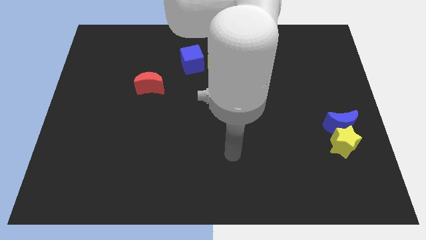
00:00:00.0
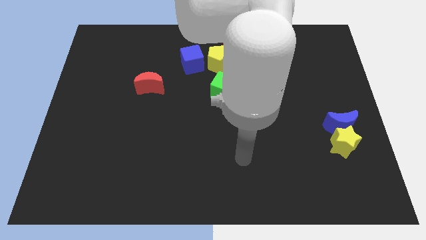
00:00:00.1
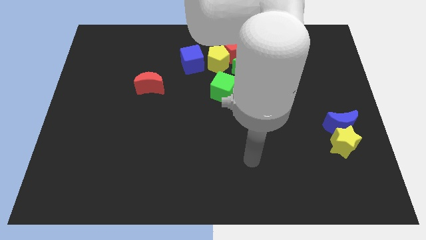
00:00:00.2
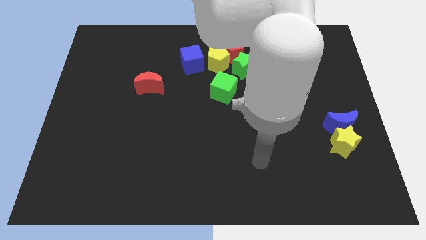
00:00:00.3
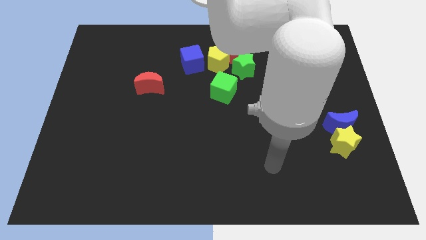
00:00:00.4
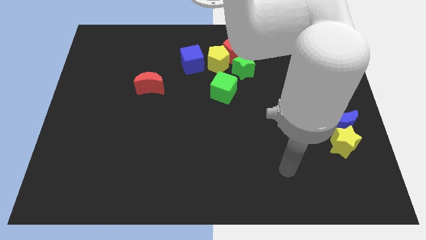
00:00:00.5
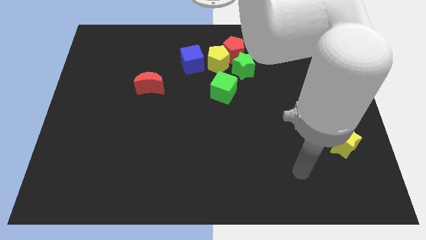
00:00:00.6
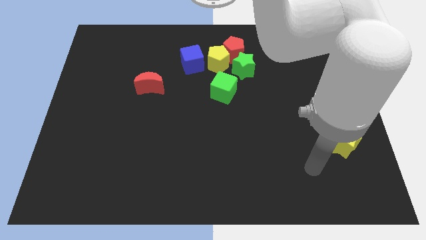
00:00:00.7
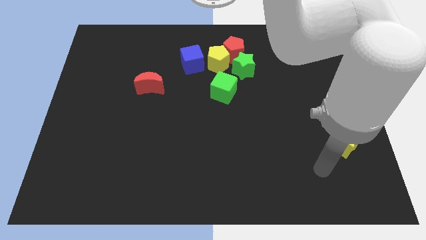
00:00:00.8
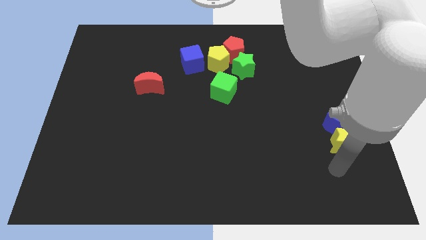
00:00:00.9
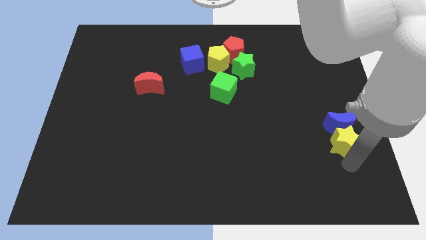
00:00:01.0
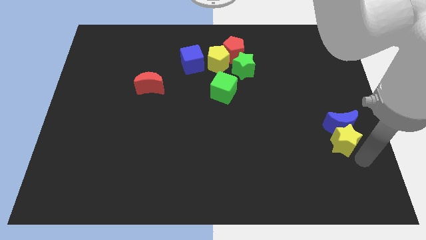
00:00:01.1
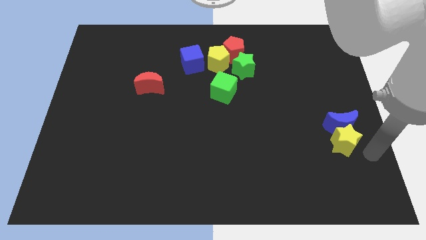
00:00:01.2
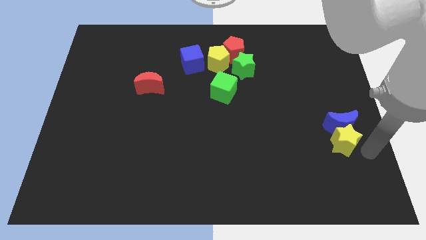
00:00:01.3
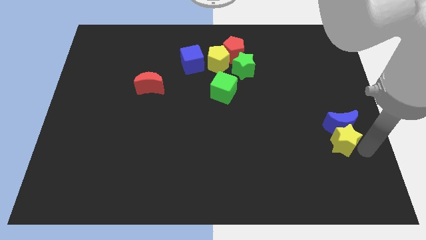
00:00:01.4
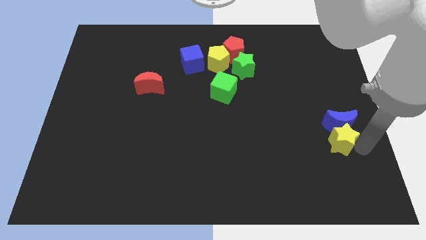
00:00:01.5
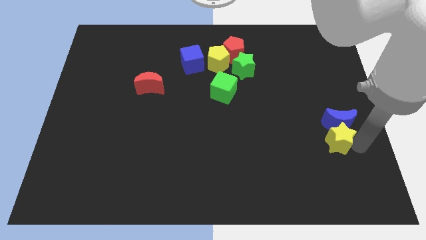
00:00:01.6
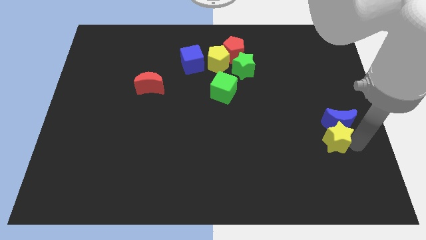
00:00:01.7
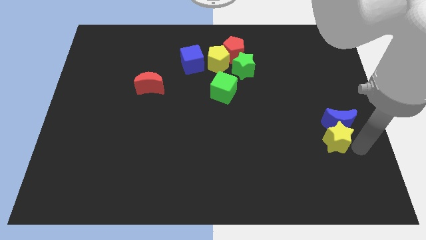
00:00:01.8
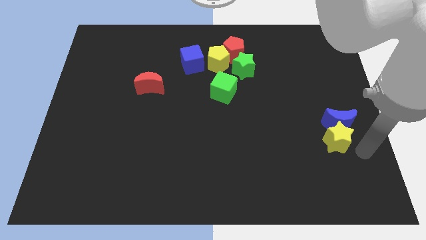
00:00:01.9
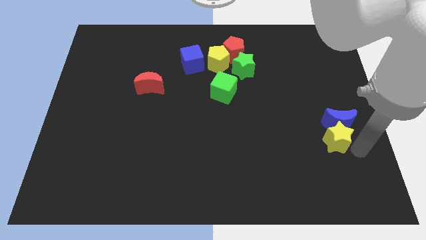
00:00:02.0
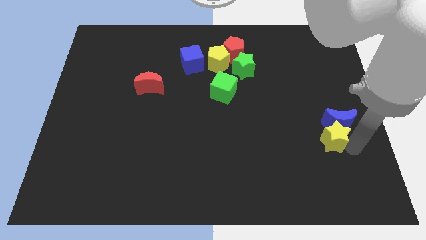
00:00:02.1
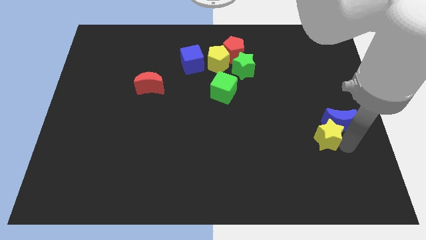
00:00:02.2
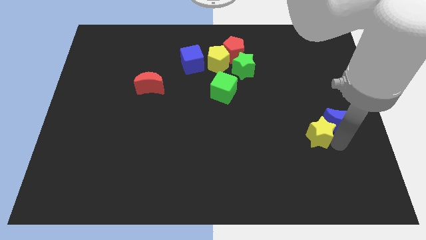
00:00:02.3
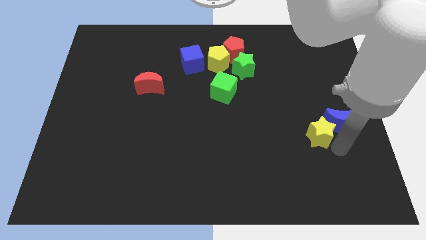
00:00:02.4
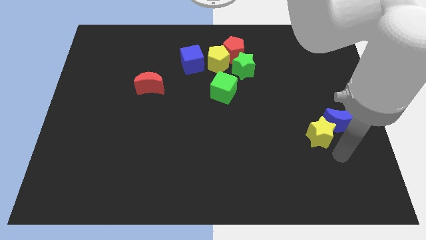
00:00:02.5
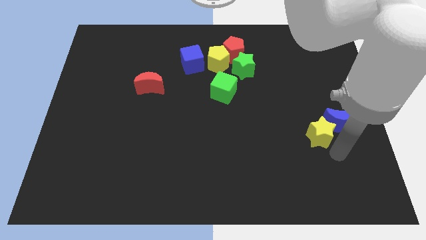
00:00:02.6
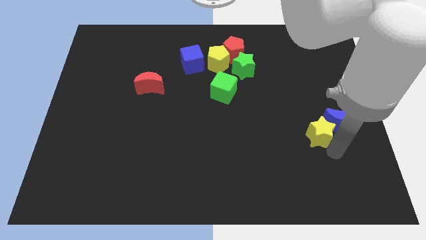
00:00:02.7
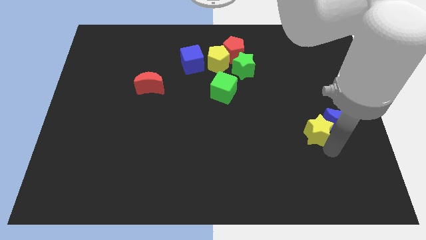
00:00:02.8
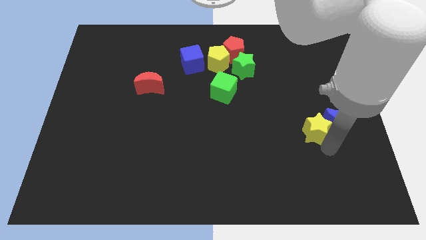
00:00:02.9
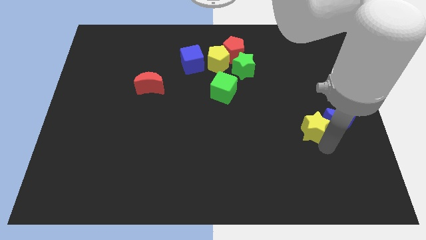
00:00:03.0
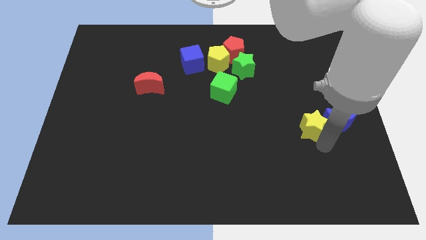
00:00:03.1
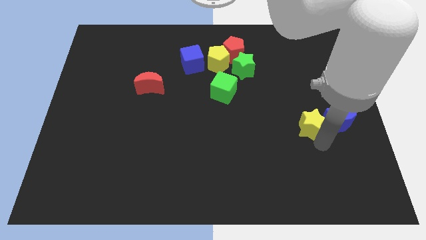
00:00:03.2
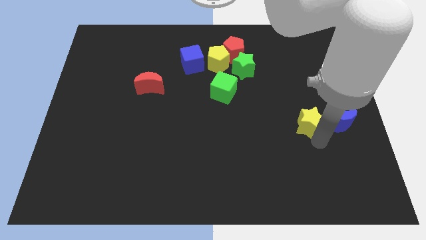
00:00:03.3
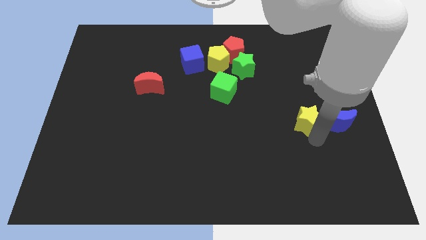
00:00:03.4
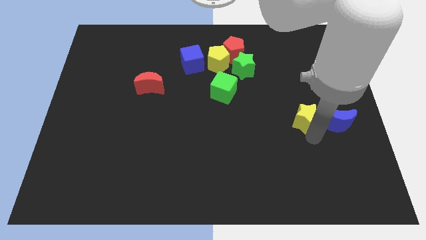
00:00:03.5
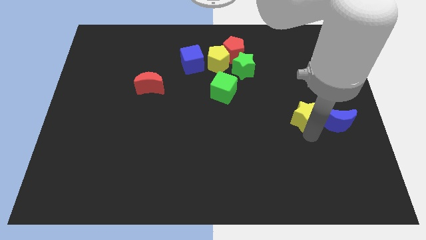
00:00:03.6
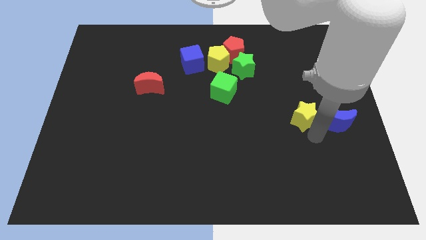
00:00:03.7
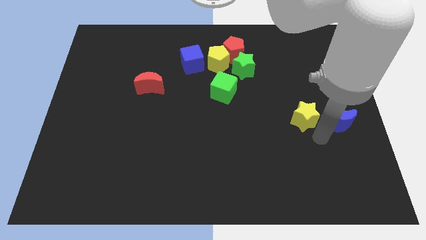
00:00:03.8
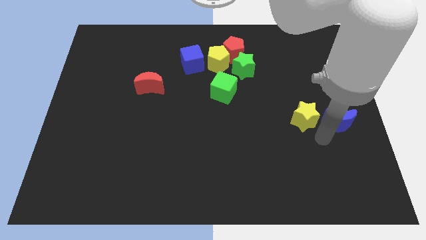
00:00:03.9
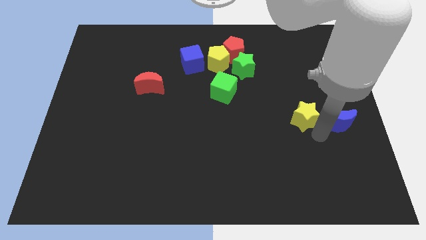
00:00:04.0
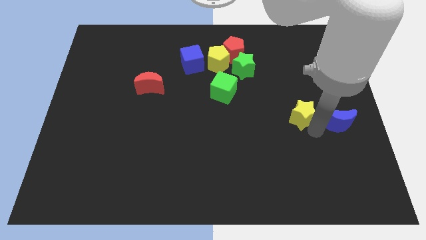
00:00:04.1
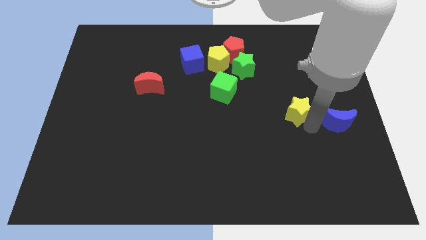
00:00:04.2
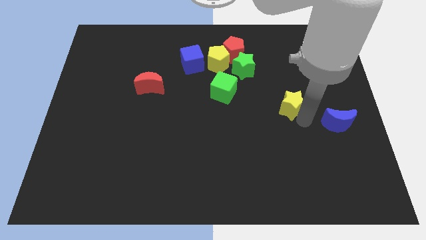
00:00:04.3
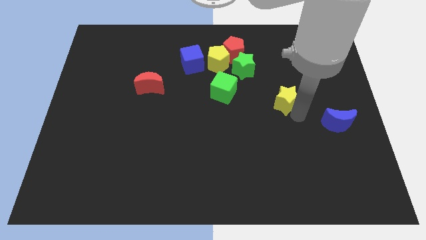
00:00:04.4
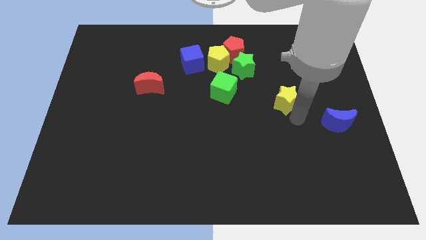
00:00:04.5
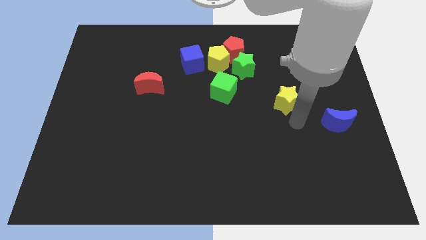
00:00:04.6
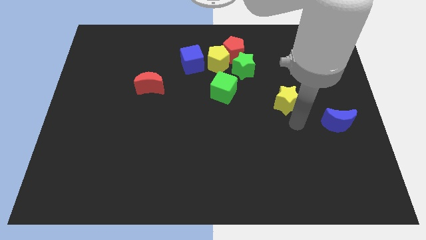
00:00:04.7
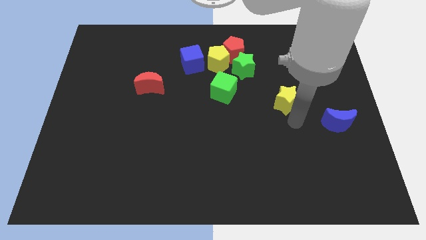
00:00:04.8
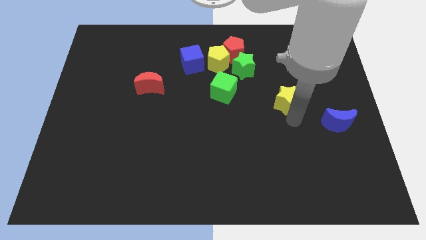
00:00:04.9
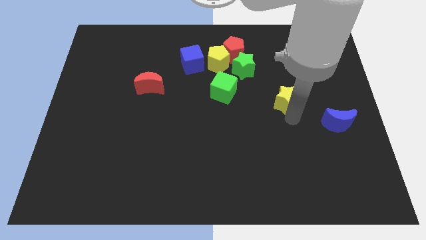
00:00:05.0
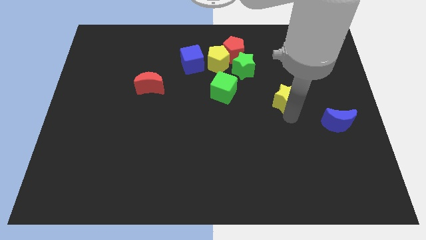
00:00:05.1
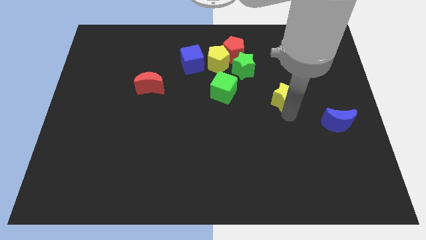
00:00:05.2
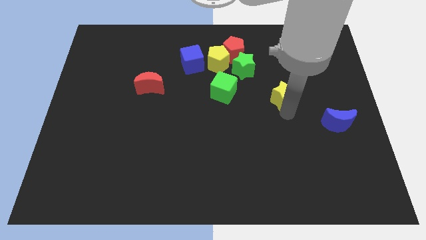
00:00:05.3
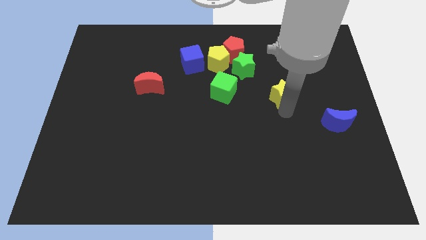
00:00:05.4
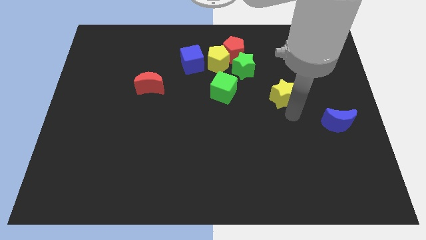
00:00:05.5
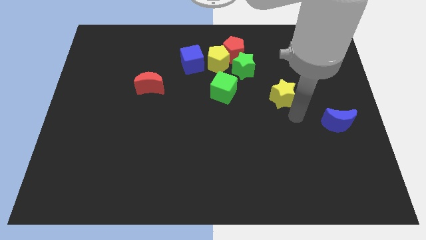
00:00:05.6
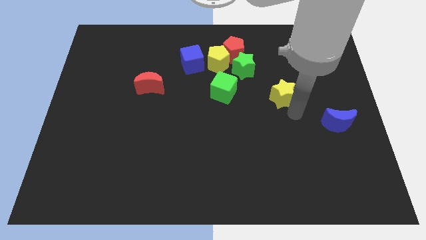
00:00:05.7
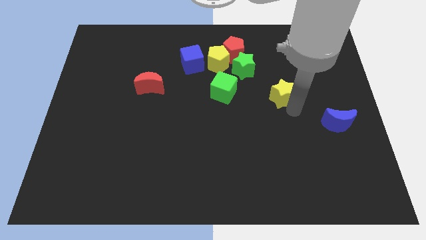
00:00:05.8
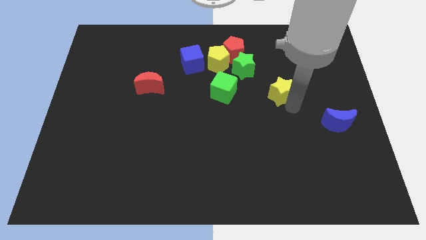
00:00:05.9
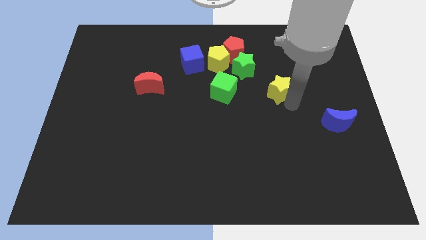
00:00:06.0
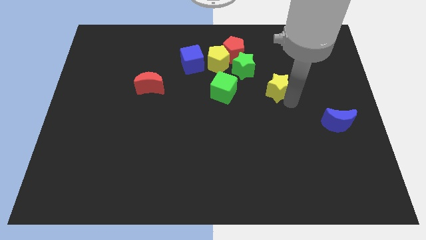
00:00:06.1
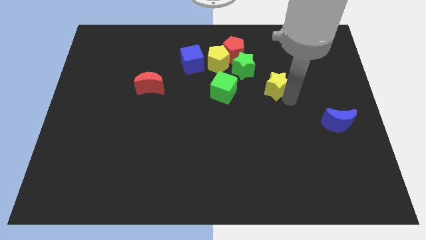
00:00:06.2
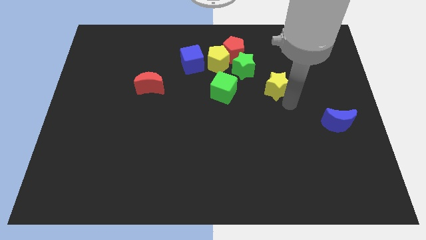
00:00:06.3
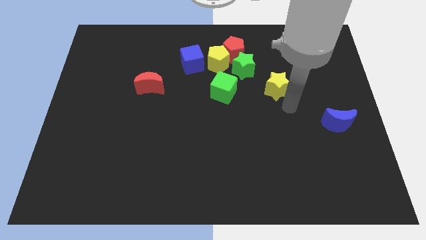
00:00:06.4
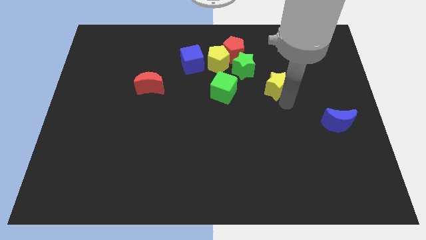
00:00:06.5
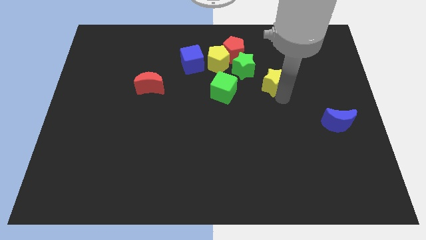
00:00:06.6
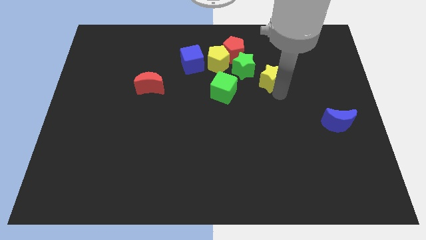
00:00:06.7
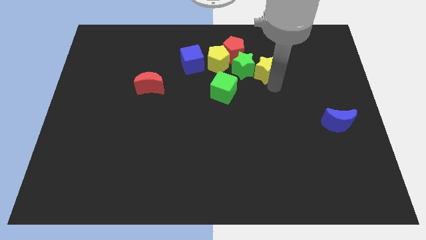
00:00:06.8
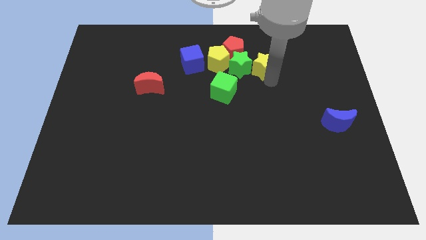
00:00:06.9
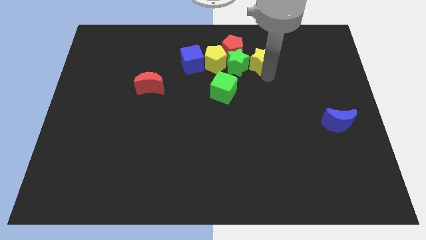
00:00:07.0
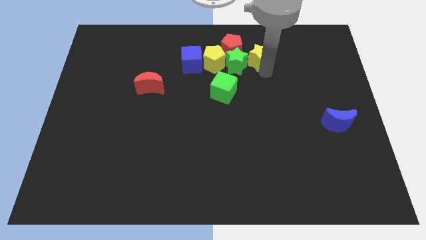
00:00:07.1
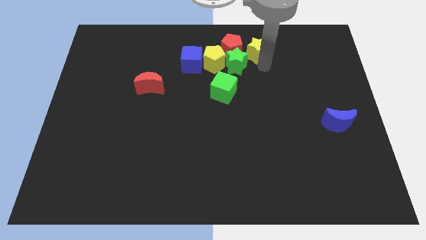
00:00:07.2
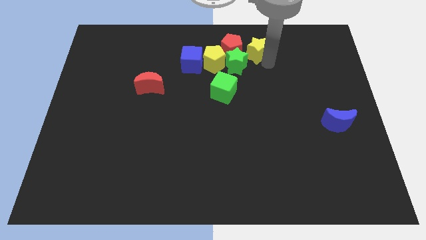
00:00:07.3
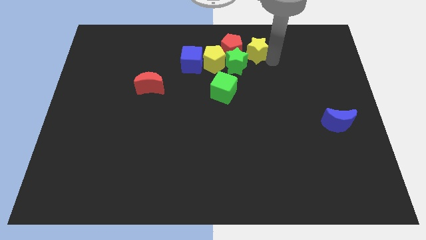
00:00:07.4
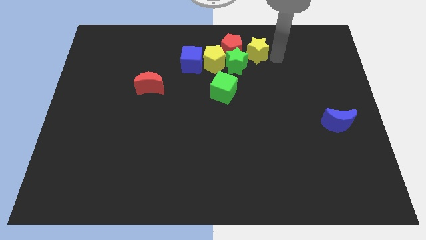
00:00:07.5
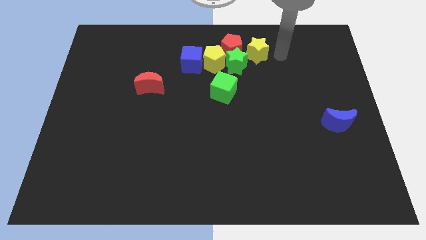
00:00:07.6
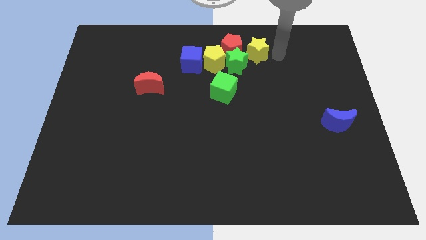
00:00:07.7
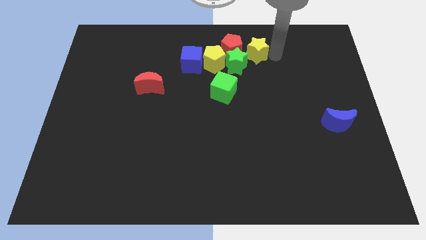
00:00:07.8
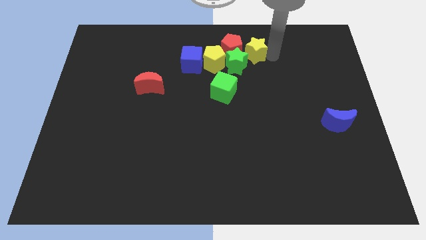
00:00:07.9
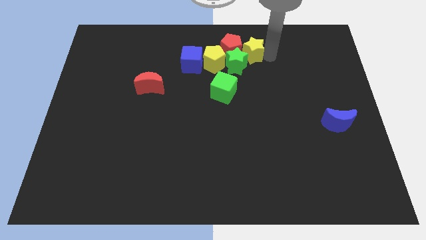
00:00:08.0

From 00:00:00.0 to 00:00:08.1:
put the yellow star towards the red pentagon
